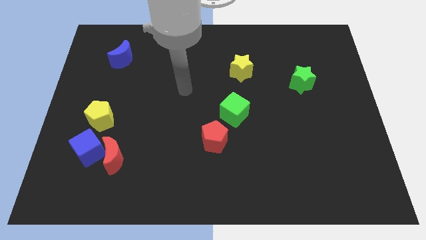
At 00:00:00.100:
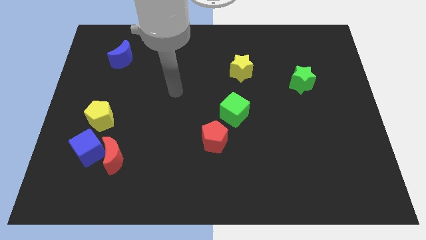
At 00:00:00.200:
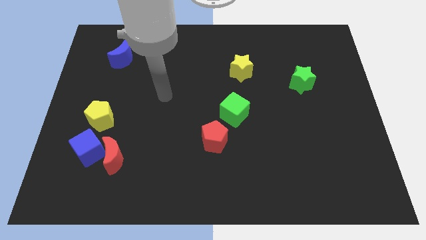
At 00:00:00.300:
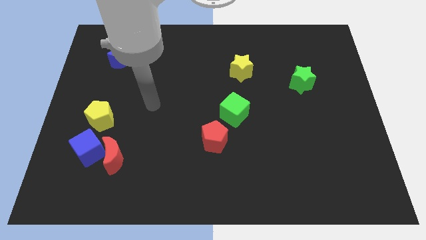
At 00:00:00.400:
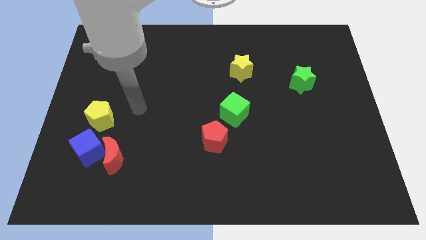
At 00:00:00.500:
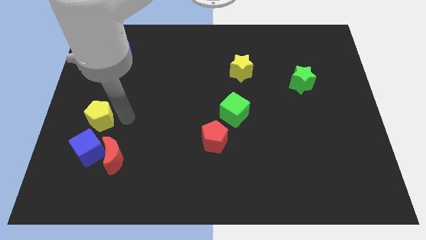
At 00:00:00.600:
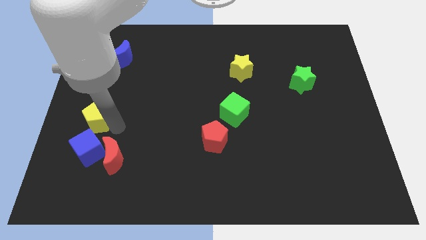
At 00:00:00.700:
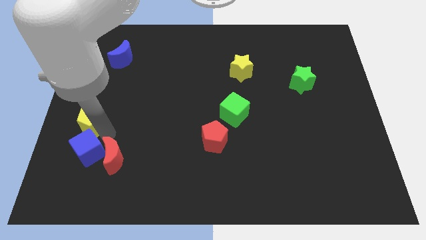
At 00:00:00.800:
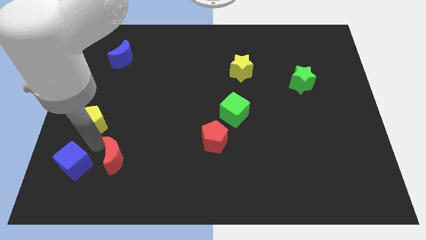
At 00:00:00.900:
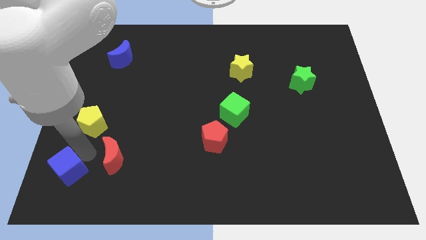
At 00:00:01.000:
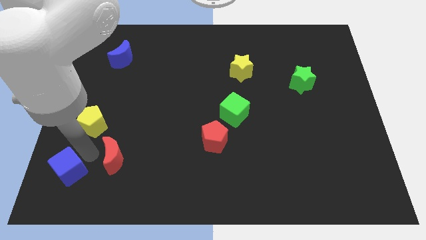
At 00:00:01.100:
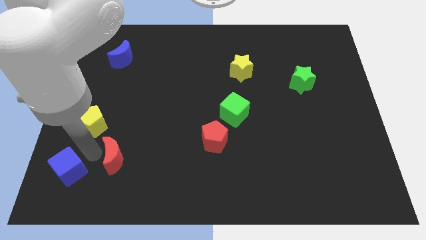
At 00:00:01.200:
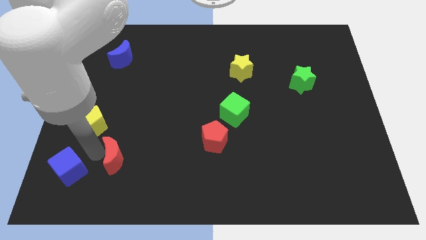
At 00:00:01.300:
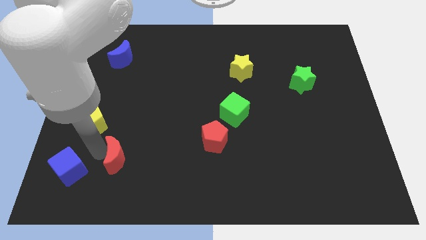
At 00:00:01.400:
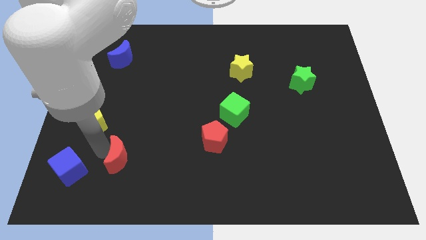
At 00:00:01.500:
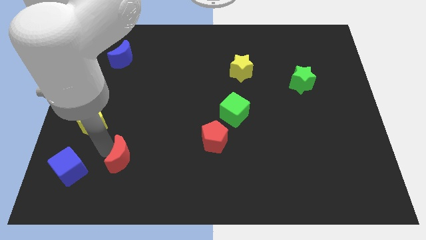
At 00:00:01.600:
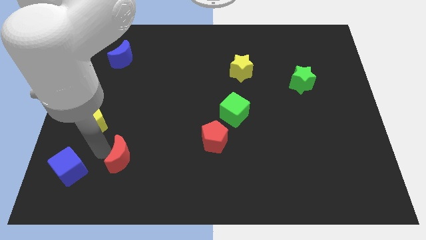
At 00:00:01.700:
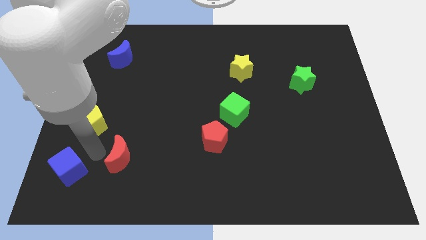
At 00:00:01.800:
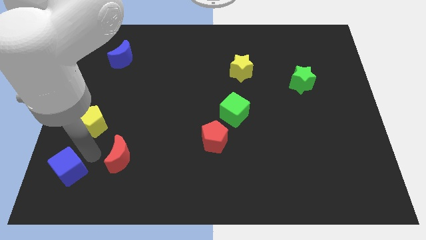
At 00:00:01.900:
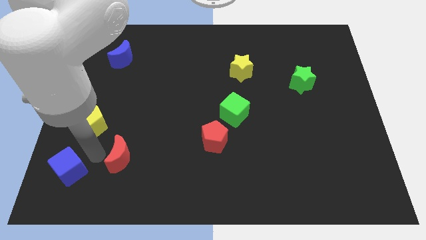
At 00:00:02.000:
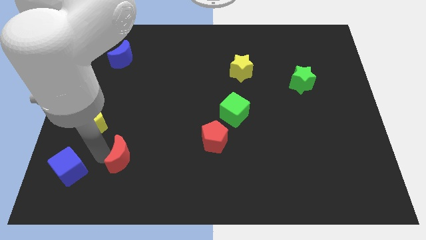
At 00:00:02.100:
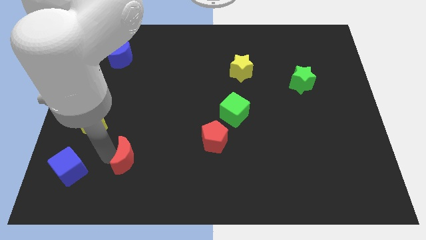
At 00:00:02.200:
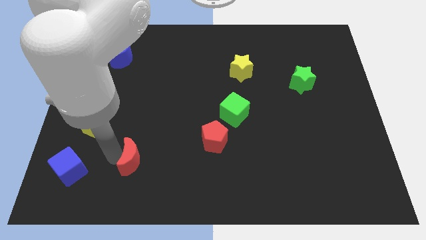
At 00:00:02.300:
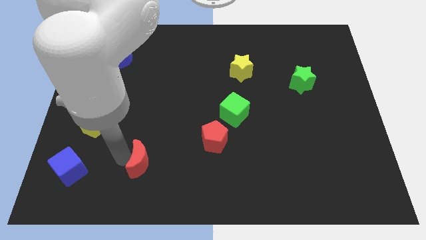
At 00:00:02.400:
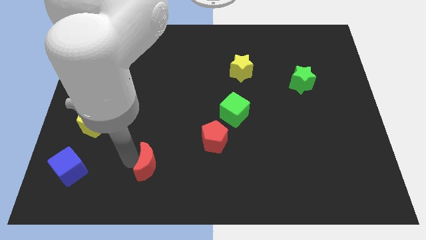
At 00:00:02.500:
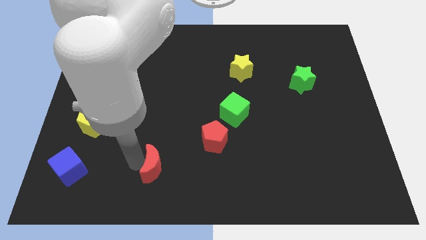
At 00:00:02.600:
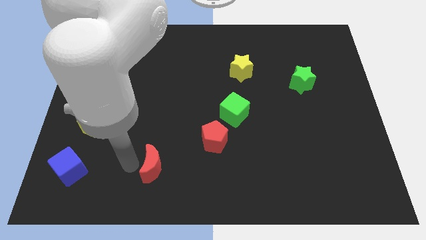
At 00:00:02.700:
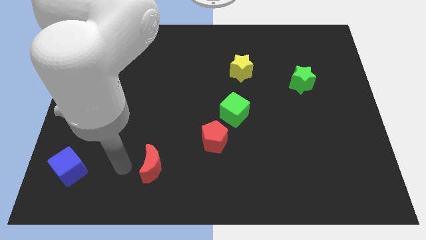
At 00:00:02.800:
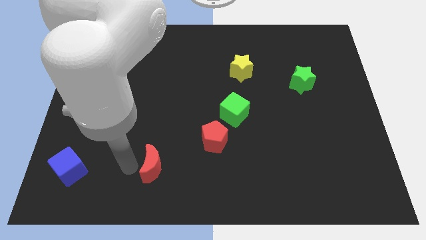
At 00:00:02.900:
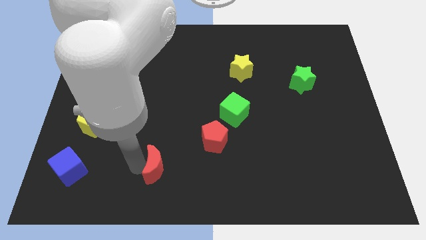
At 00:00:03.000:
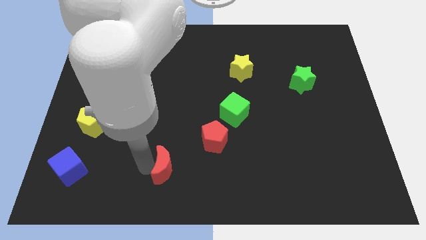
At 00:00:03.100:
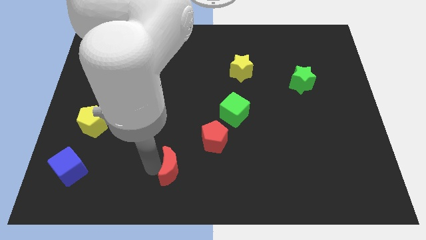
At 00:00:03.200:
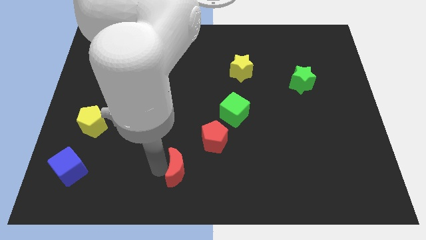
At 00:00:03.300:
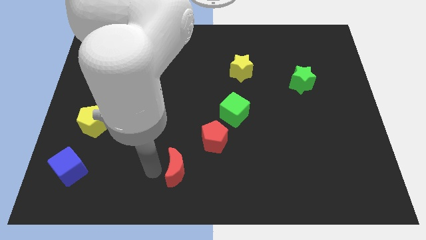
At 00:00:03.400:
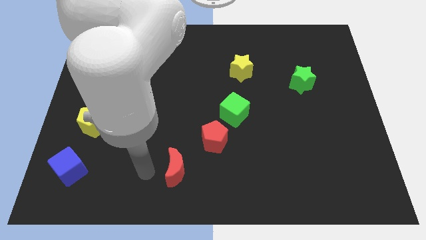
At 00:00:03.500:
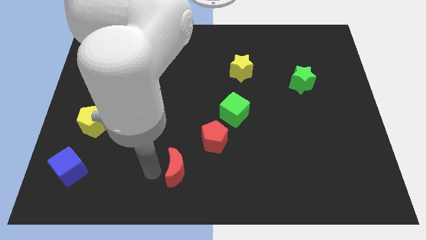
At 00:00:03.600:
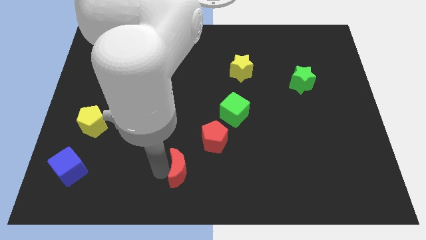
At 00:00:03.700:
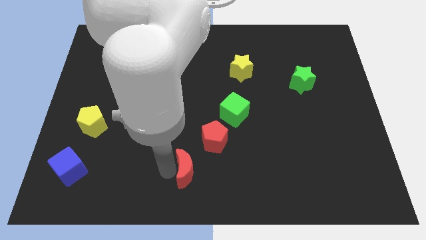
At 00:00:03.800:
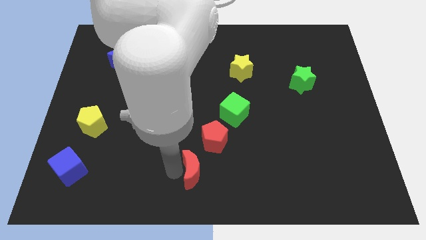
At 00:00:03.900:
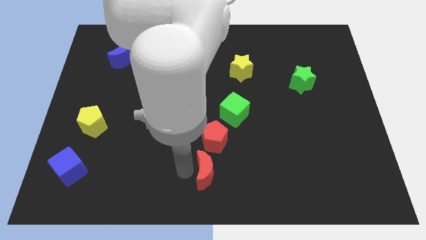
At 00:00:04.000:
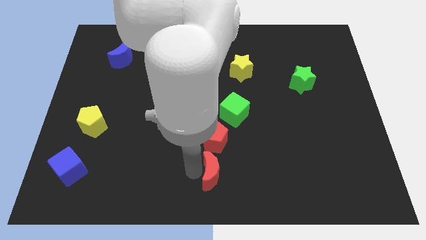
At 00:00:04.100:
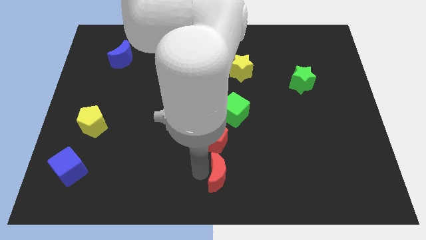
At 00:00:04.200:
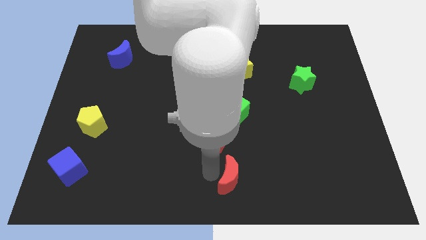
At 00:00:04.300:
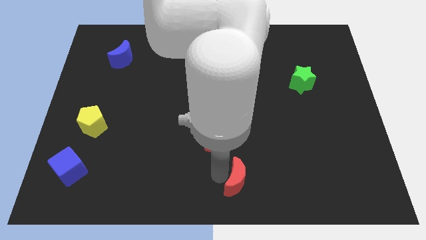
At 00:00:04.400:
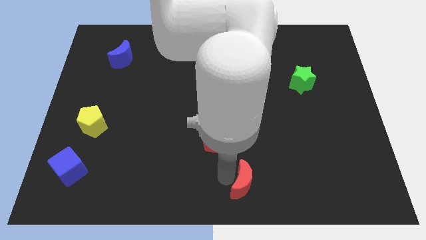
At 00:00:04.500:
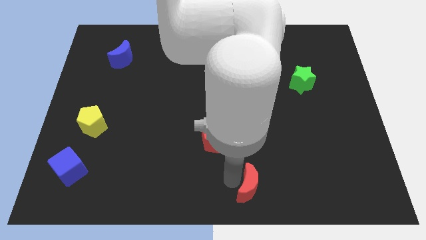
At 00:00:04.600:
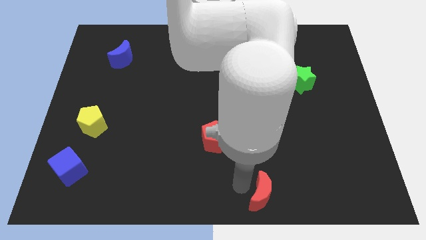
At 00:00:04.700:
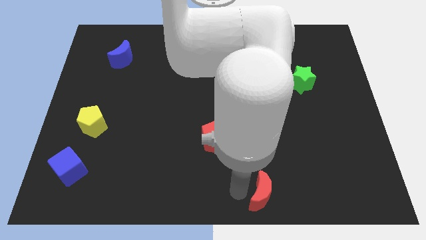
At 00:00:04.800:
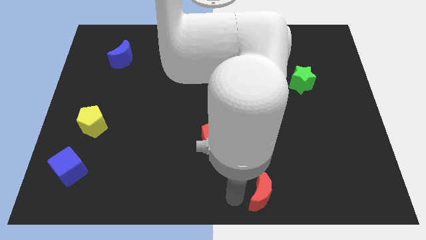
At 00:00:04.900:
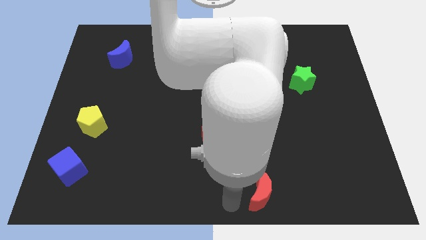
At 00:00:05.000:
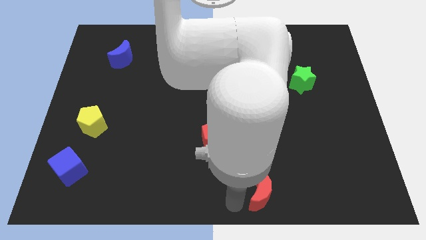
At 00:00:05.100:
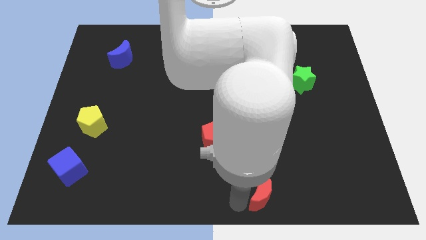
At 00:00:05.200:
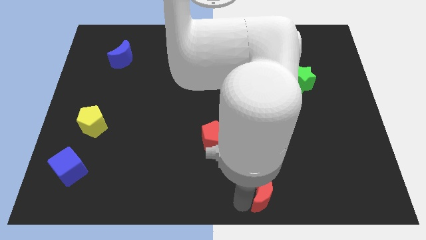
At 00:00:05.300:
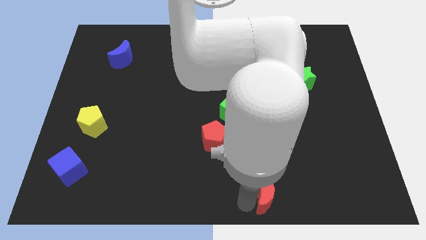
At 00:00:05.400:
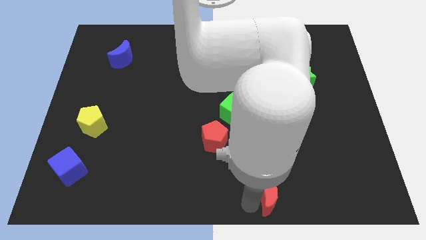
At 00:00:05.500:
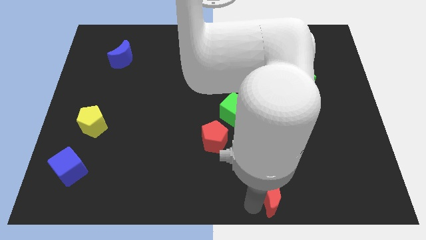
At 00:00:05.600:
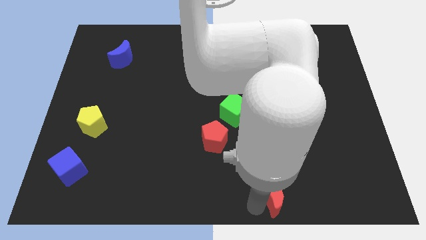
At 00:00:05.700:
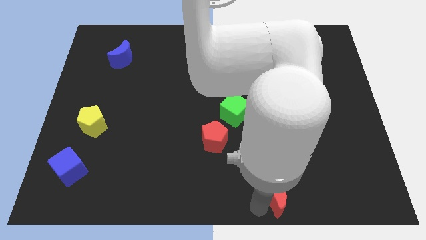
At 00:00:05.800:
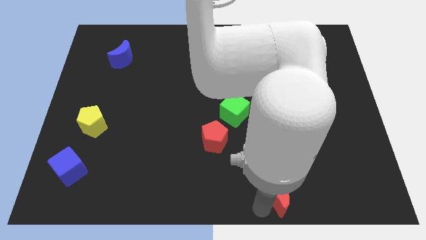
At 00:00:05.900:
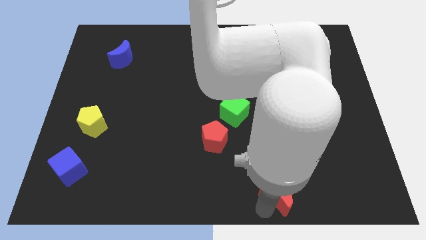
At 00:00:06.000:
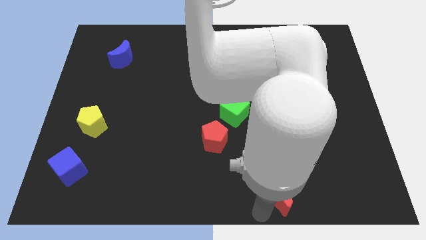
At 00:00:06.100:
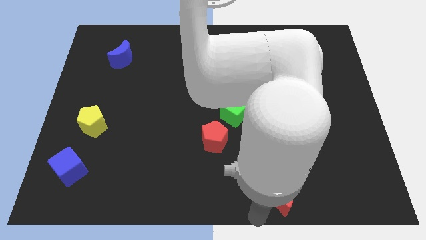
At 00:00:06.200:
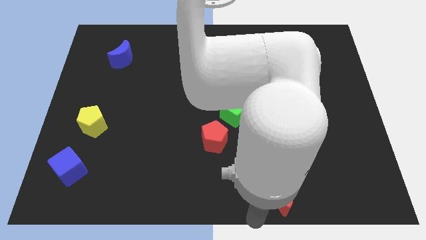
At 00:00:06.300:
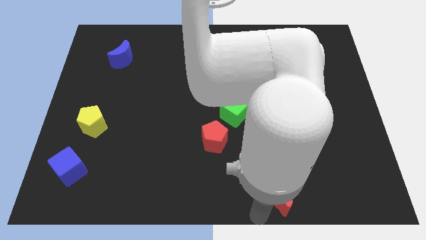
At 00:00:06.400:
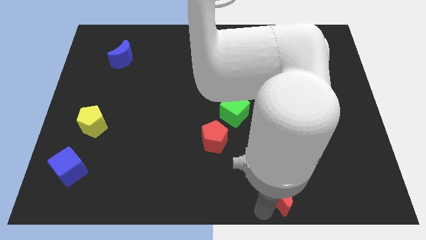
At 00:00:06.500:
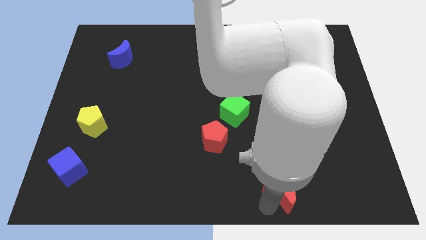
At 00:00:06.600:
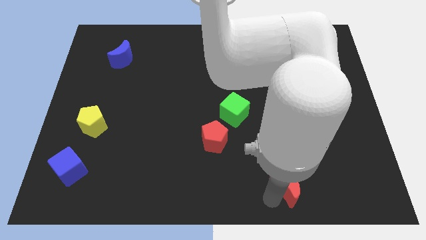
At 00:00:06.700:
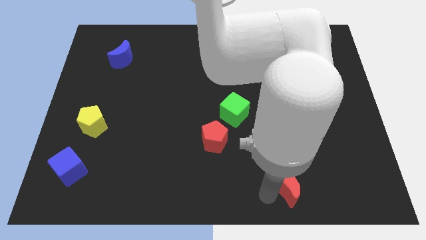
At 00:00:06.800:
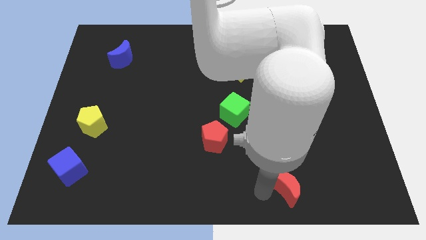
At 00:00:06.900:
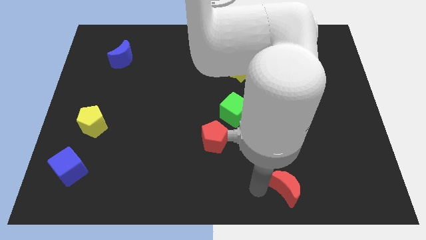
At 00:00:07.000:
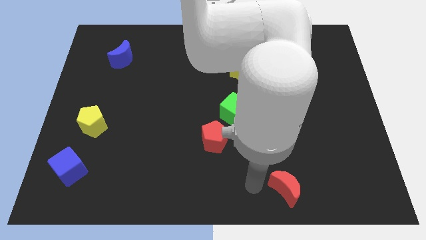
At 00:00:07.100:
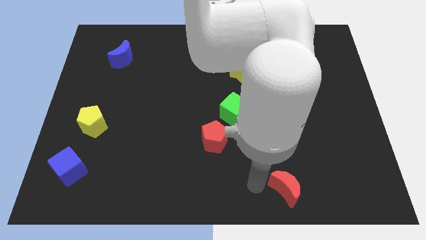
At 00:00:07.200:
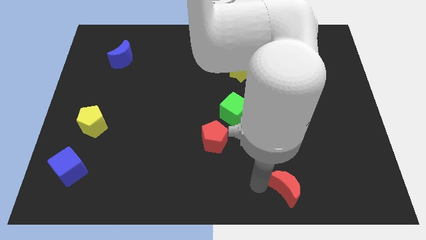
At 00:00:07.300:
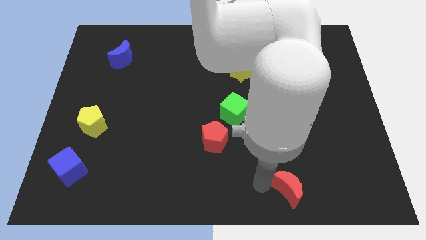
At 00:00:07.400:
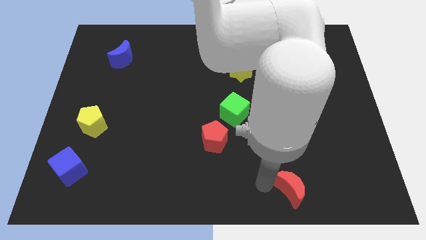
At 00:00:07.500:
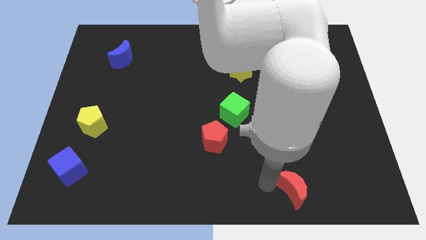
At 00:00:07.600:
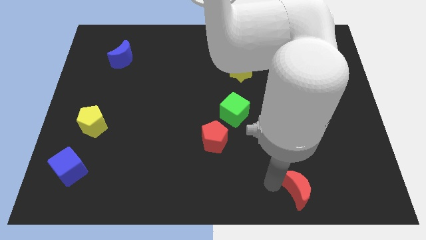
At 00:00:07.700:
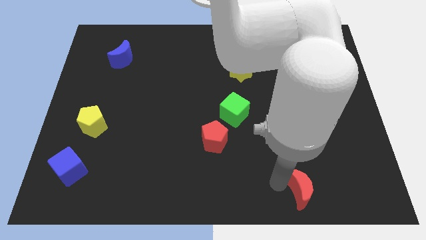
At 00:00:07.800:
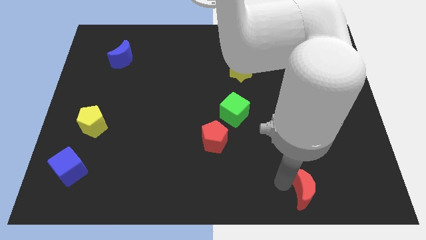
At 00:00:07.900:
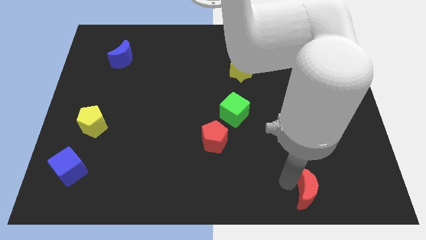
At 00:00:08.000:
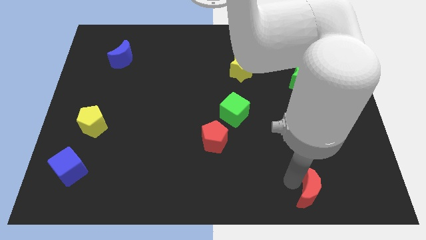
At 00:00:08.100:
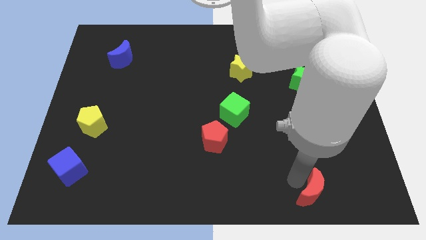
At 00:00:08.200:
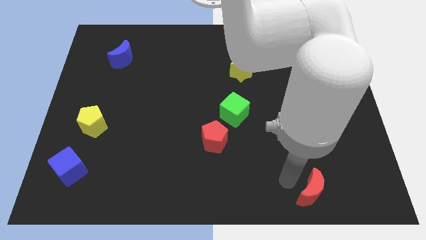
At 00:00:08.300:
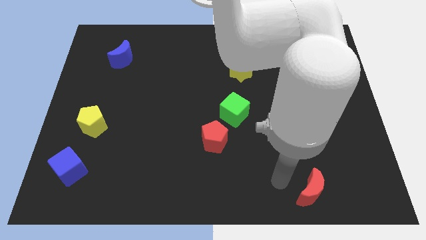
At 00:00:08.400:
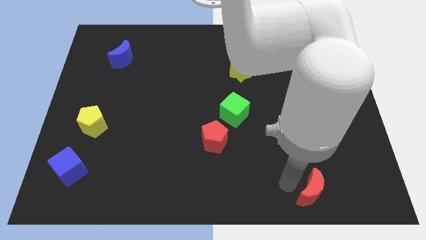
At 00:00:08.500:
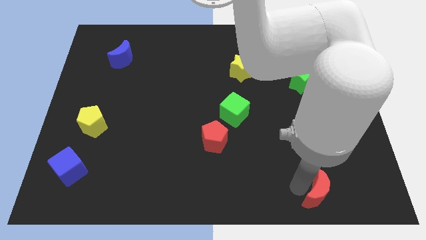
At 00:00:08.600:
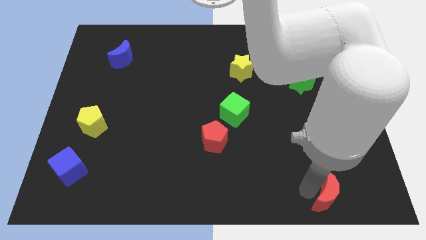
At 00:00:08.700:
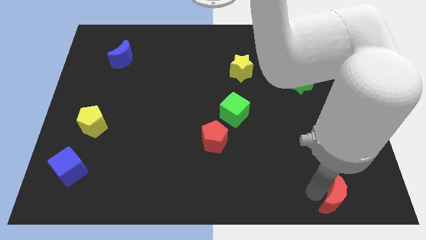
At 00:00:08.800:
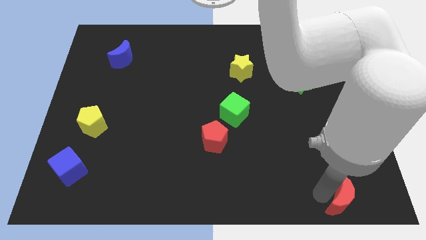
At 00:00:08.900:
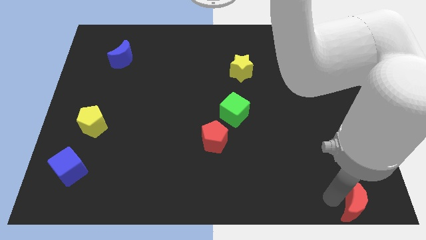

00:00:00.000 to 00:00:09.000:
push the red moon to the bottom right corner
